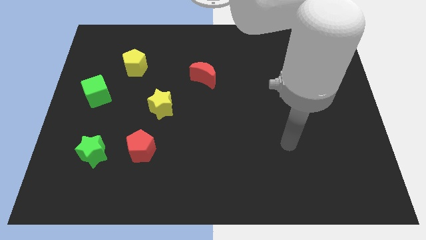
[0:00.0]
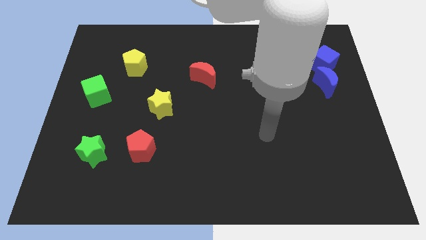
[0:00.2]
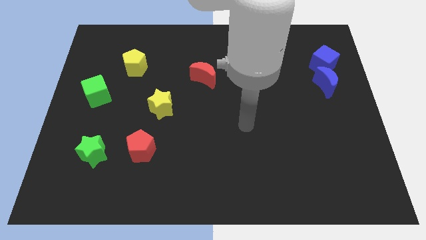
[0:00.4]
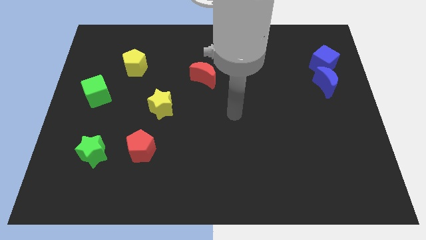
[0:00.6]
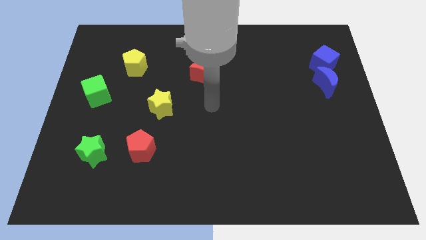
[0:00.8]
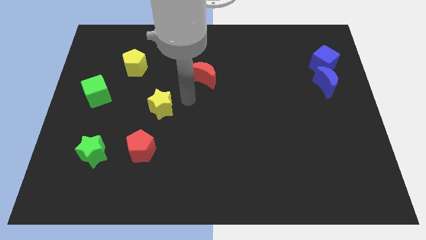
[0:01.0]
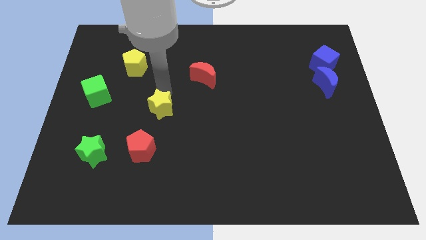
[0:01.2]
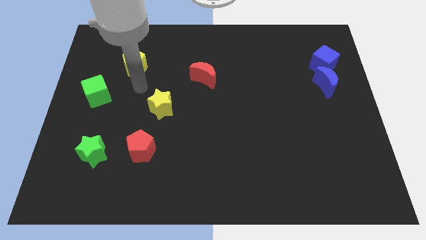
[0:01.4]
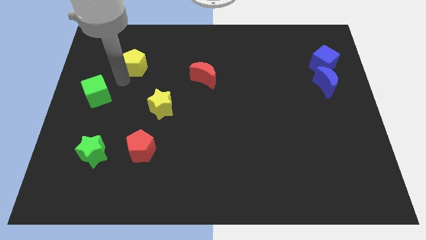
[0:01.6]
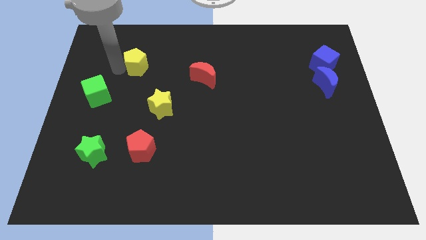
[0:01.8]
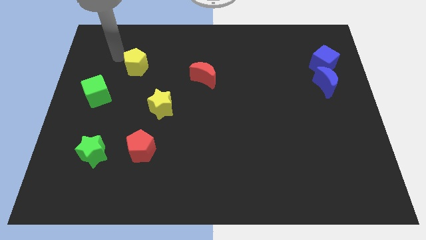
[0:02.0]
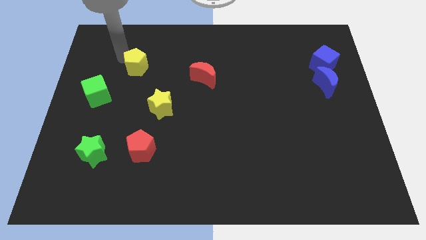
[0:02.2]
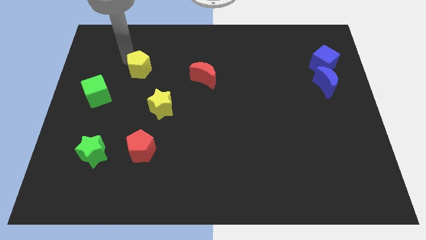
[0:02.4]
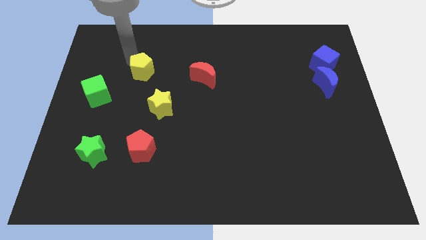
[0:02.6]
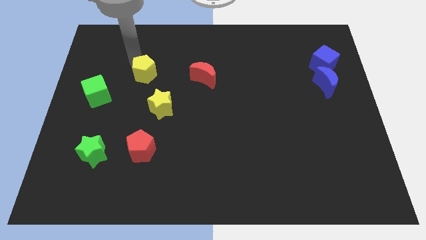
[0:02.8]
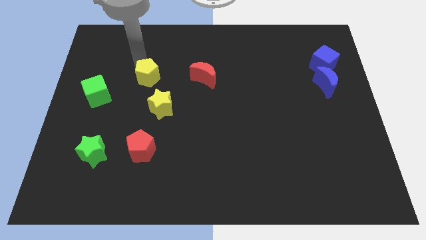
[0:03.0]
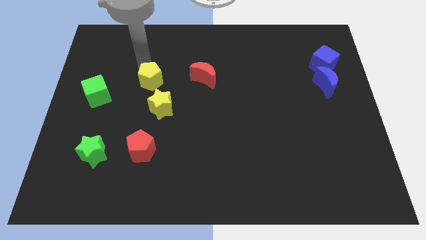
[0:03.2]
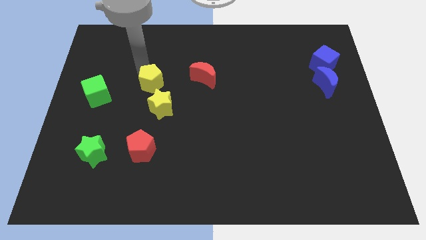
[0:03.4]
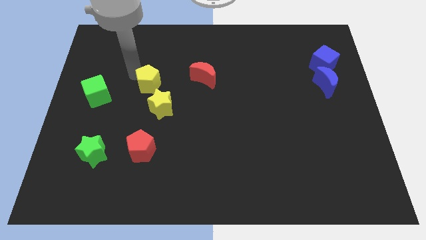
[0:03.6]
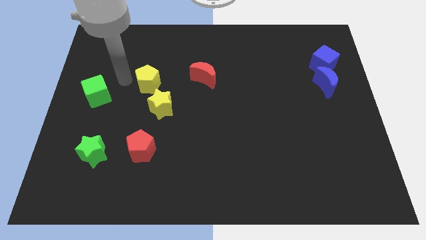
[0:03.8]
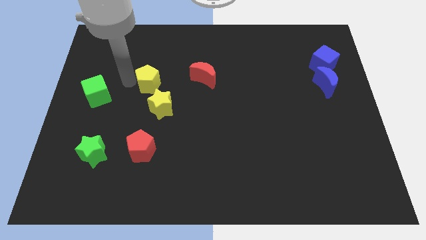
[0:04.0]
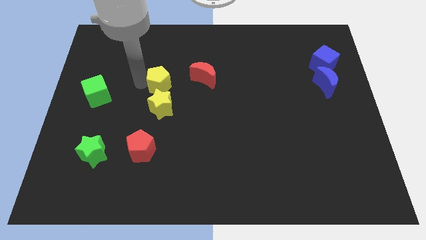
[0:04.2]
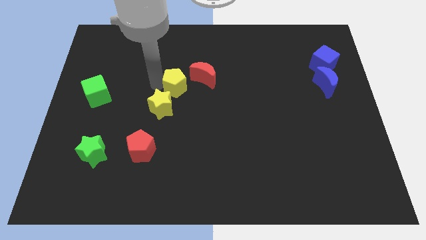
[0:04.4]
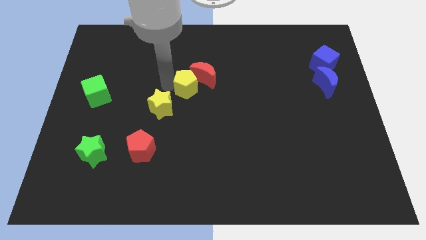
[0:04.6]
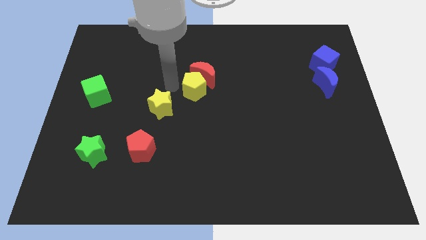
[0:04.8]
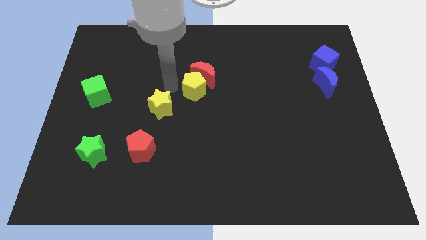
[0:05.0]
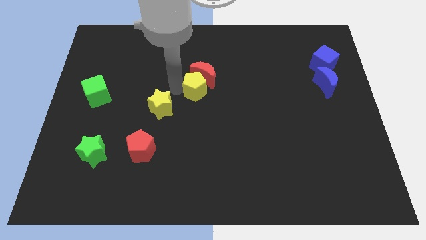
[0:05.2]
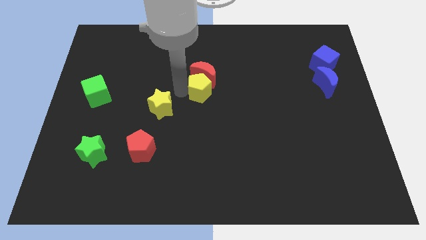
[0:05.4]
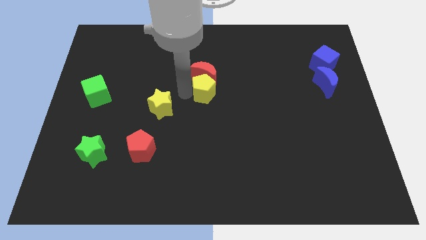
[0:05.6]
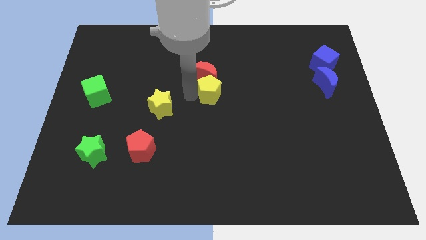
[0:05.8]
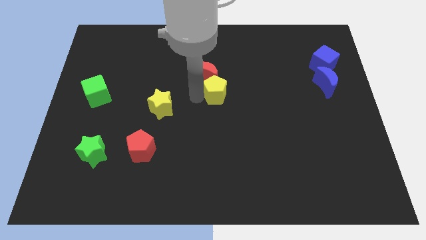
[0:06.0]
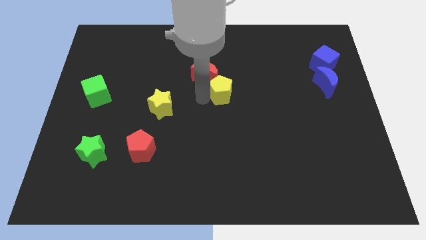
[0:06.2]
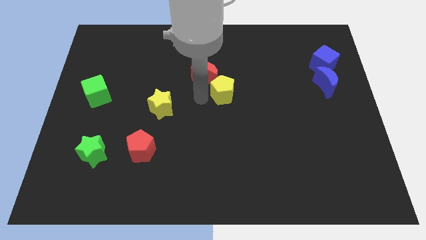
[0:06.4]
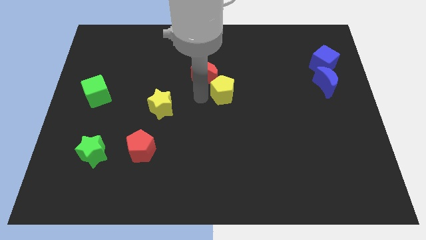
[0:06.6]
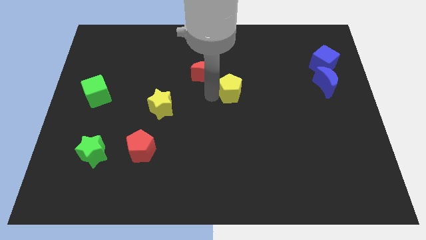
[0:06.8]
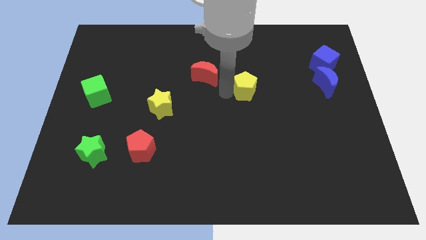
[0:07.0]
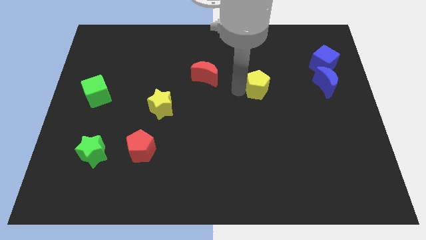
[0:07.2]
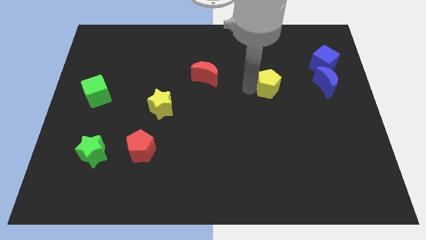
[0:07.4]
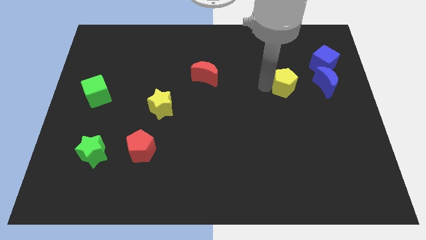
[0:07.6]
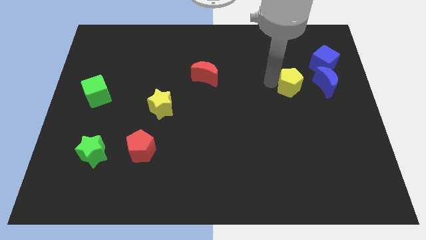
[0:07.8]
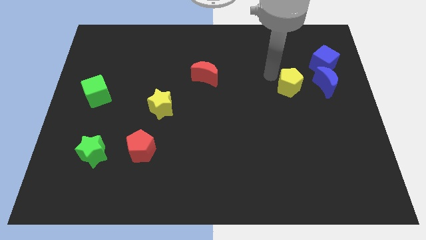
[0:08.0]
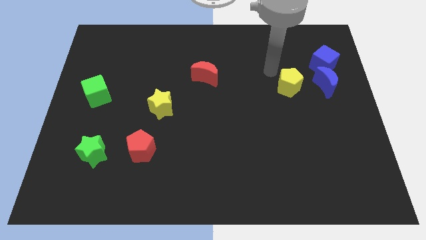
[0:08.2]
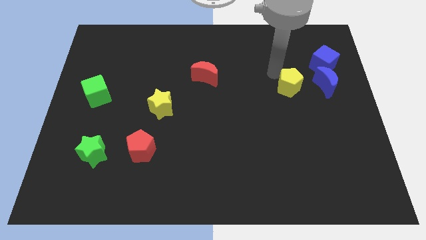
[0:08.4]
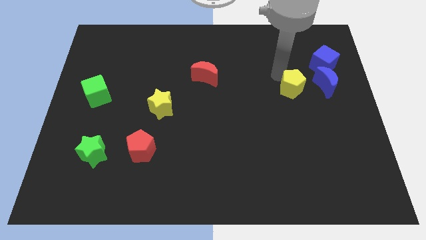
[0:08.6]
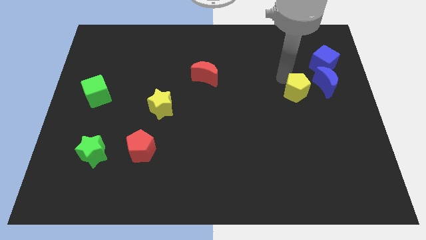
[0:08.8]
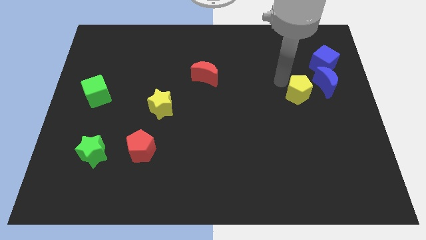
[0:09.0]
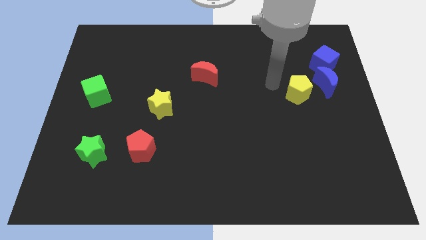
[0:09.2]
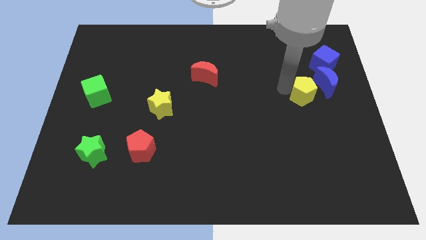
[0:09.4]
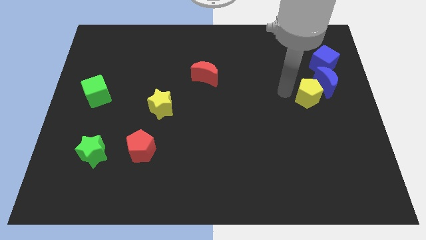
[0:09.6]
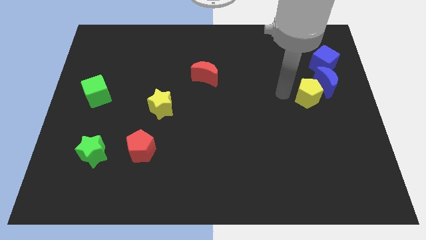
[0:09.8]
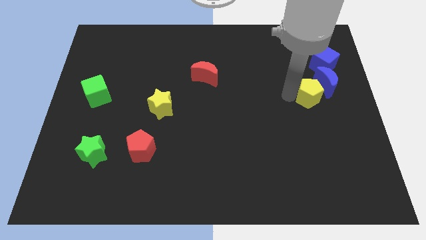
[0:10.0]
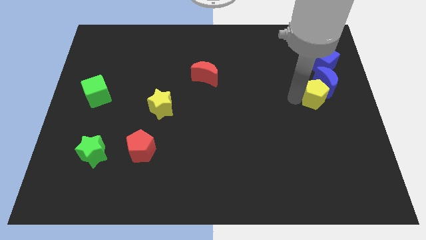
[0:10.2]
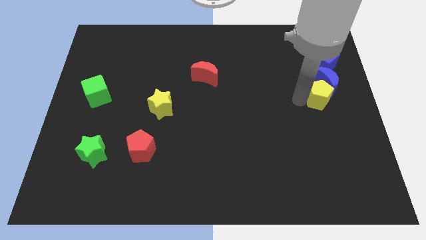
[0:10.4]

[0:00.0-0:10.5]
slide the yellow pentagon to the right side of the board

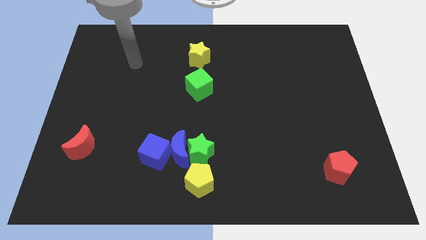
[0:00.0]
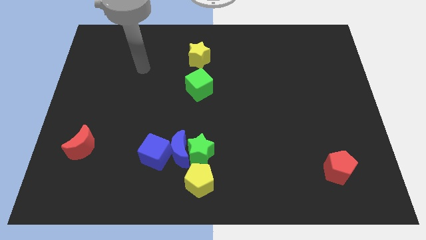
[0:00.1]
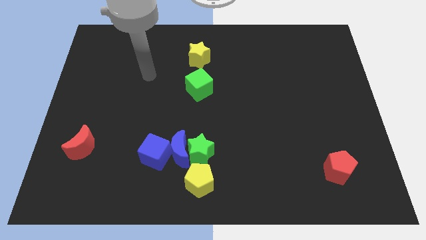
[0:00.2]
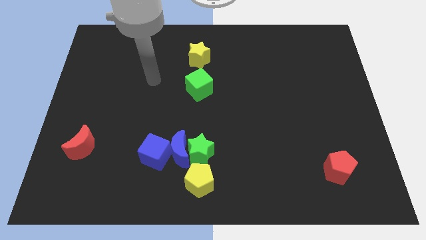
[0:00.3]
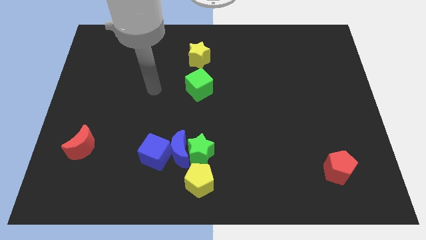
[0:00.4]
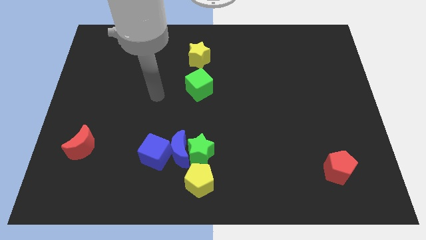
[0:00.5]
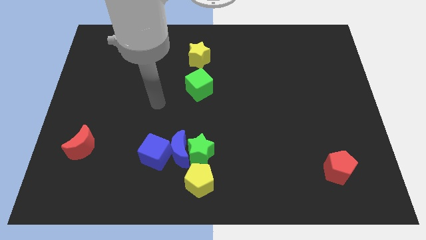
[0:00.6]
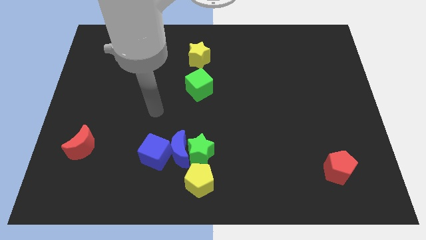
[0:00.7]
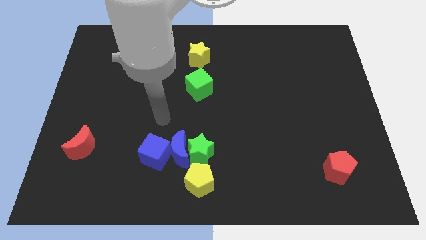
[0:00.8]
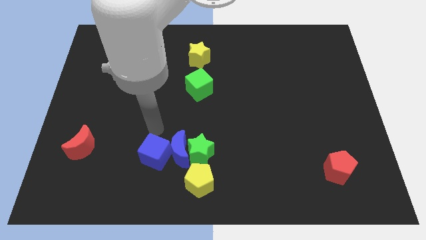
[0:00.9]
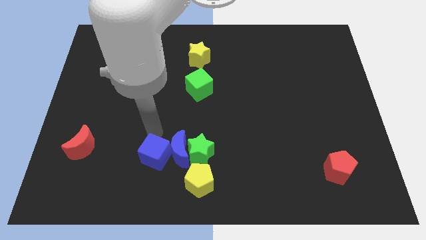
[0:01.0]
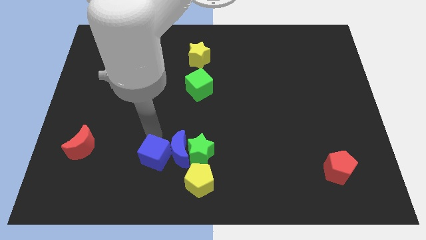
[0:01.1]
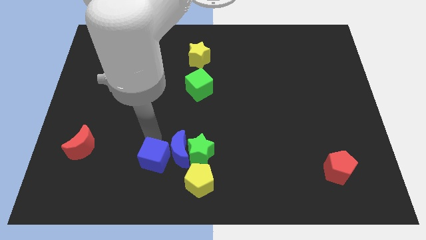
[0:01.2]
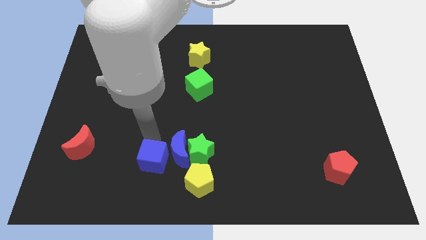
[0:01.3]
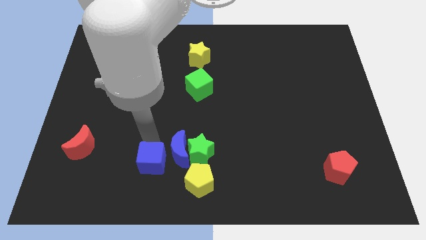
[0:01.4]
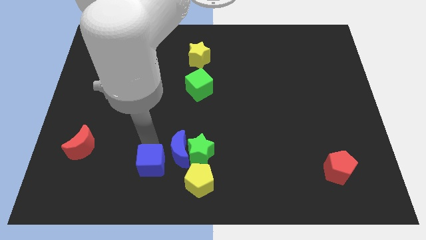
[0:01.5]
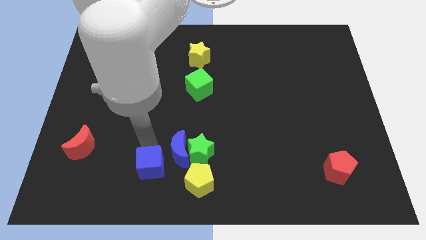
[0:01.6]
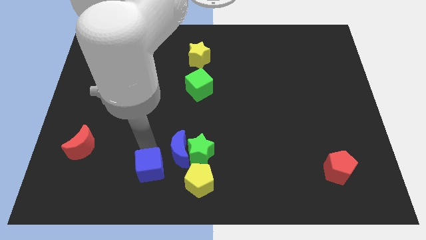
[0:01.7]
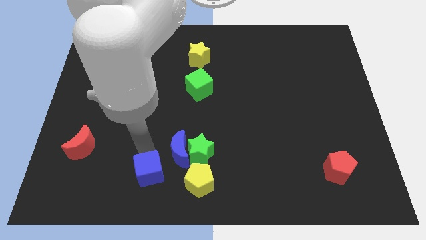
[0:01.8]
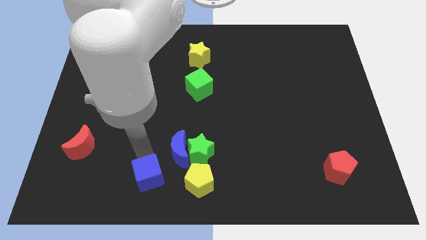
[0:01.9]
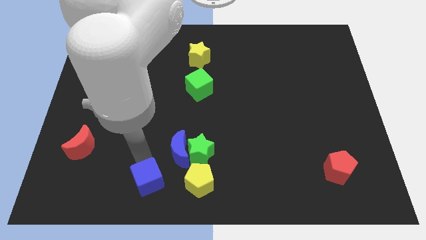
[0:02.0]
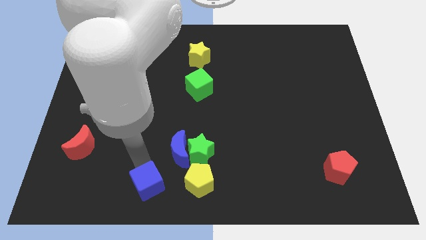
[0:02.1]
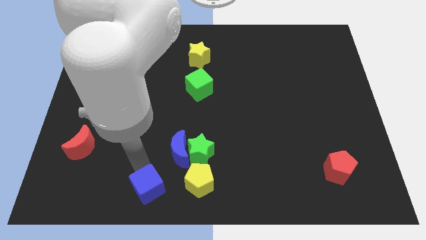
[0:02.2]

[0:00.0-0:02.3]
slide the blue cube to the bottom
